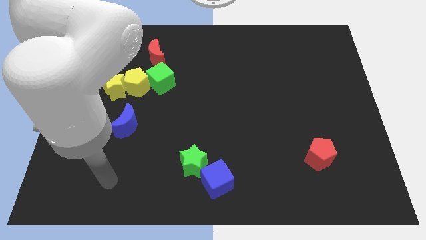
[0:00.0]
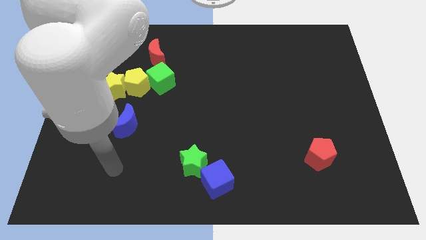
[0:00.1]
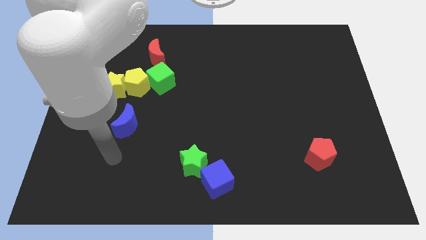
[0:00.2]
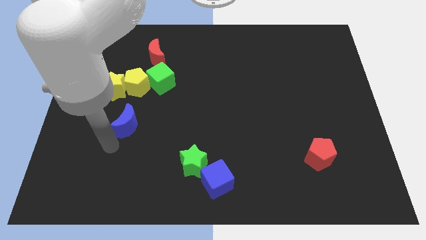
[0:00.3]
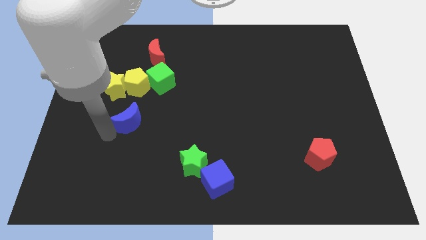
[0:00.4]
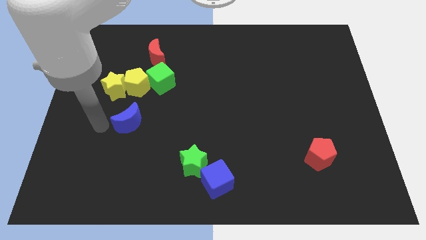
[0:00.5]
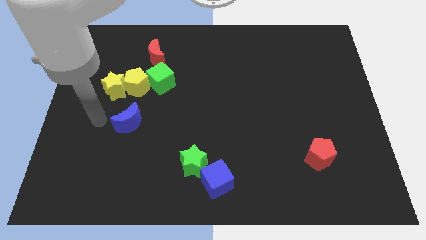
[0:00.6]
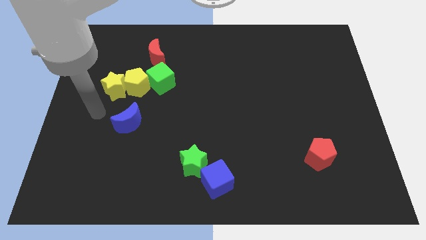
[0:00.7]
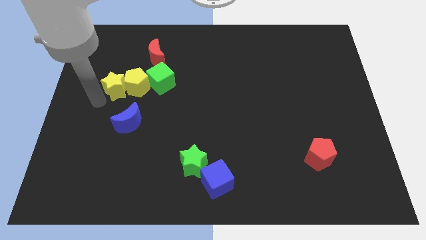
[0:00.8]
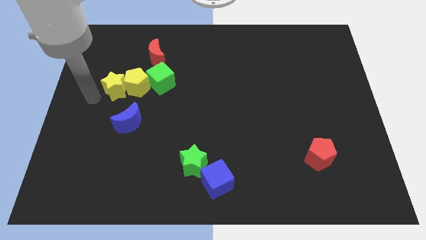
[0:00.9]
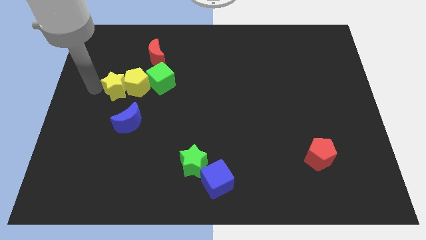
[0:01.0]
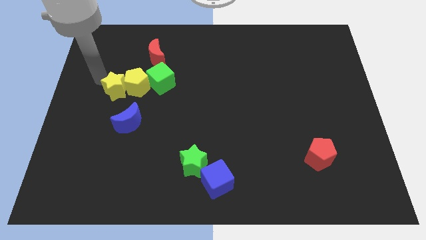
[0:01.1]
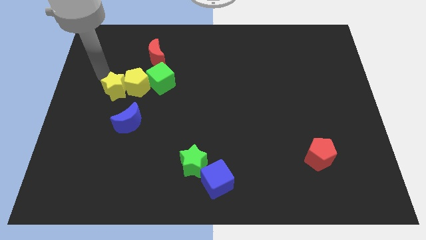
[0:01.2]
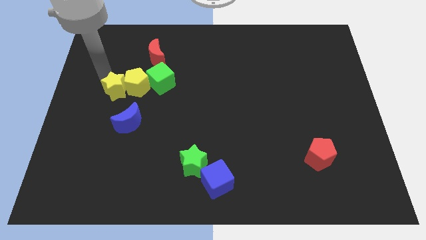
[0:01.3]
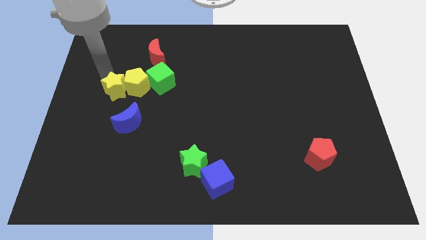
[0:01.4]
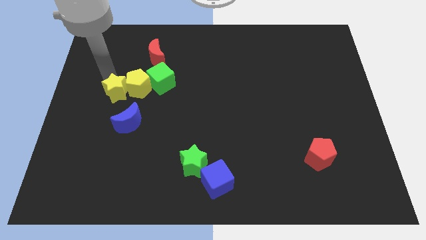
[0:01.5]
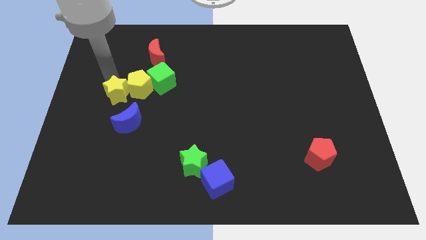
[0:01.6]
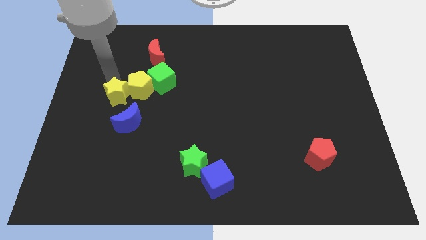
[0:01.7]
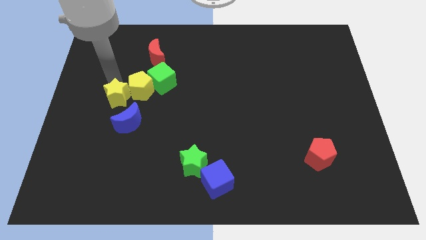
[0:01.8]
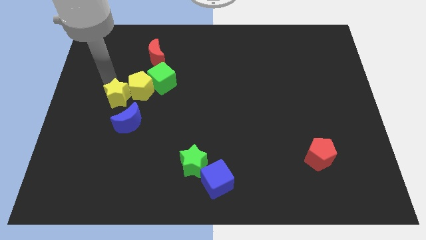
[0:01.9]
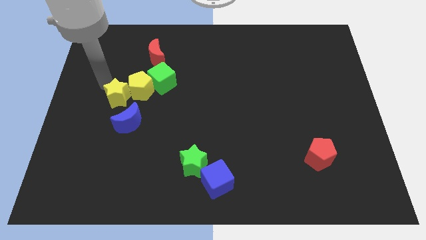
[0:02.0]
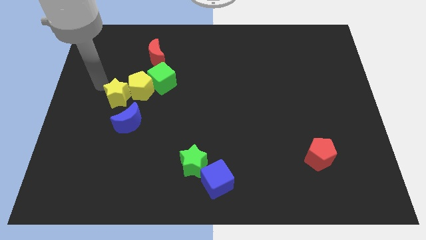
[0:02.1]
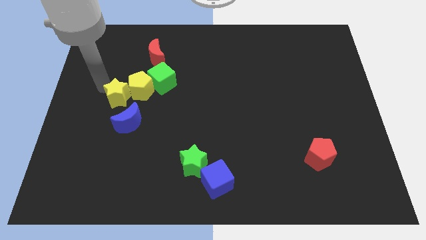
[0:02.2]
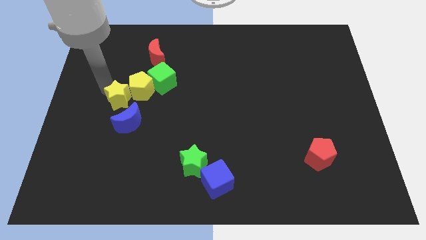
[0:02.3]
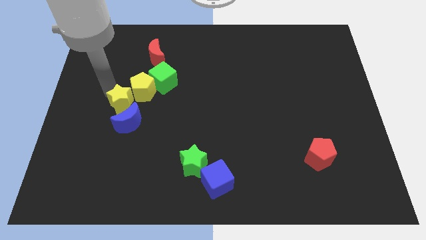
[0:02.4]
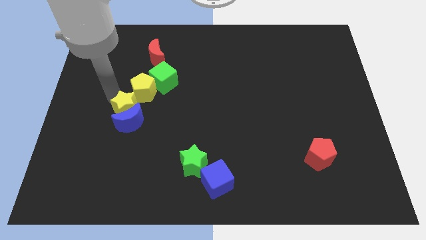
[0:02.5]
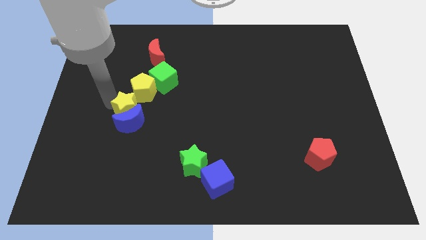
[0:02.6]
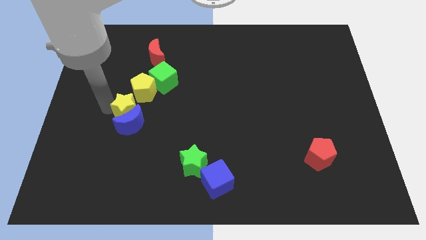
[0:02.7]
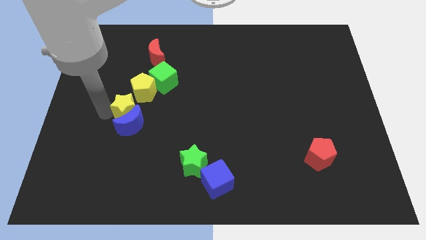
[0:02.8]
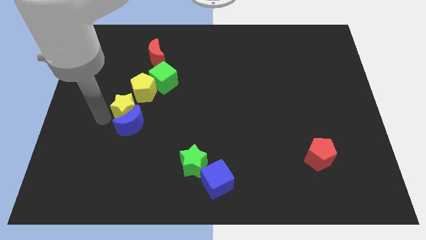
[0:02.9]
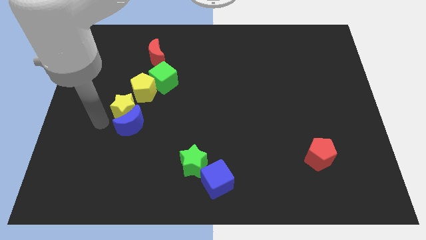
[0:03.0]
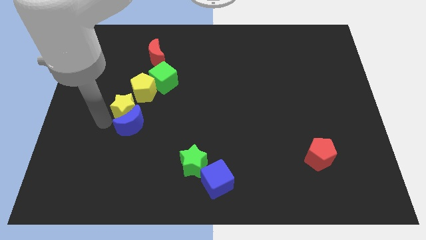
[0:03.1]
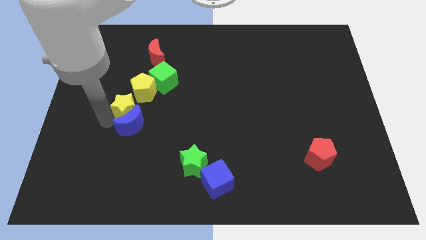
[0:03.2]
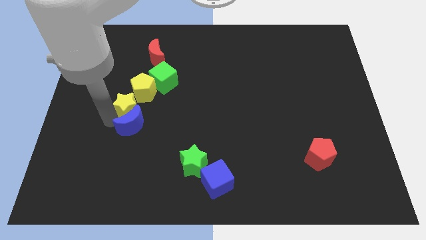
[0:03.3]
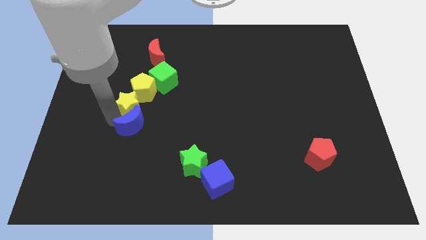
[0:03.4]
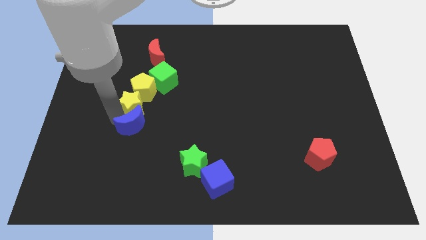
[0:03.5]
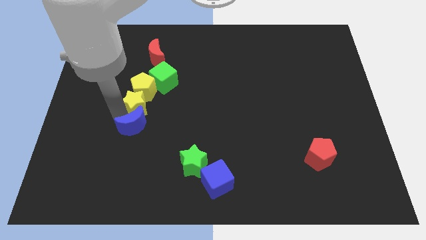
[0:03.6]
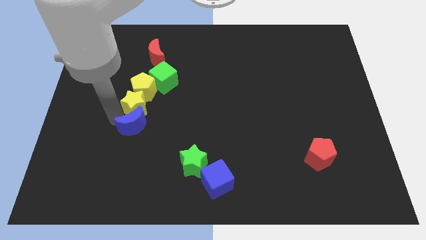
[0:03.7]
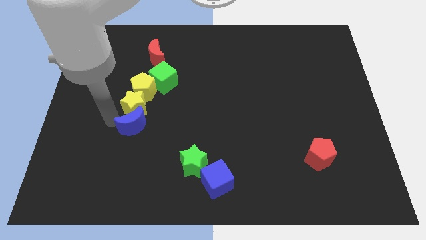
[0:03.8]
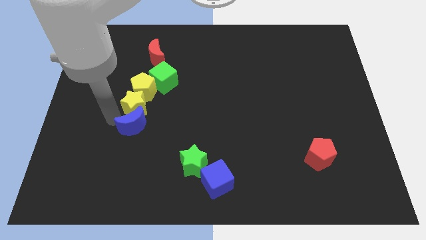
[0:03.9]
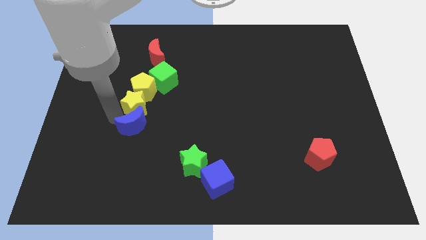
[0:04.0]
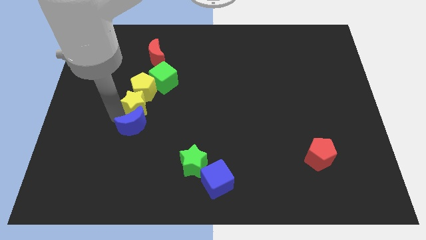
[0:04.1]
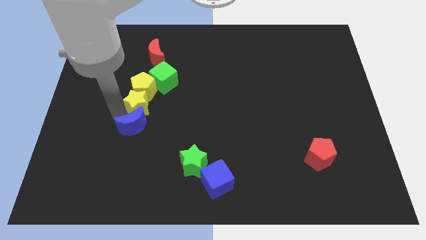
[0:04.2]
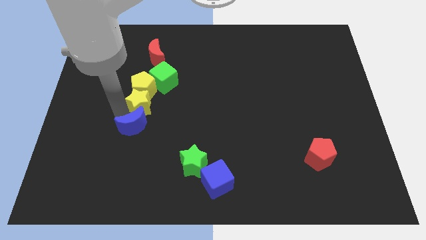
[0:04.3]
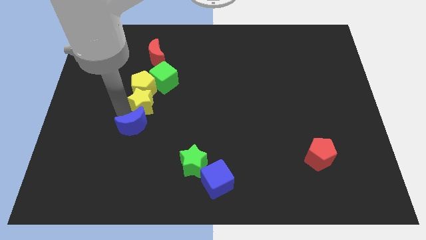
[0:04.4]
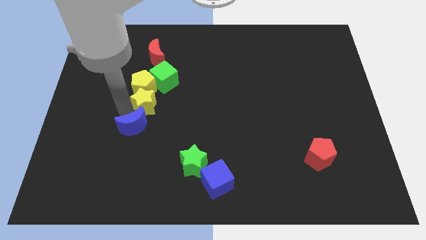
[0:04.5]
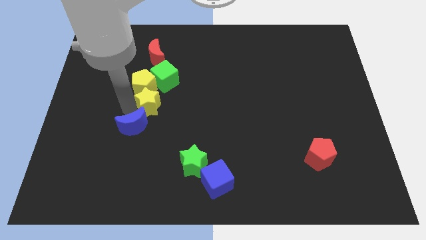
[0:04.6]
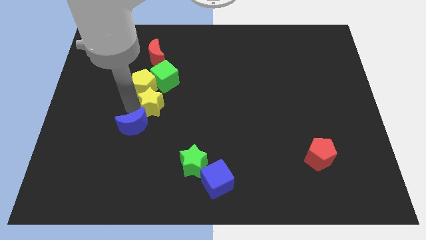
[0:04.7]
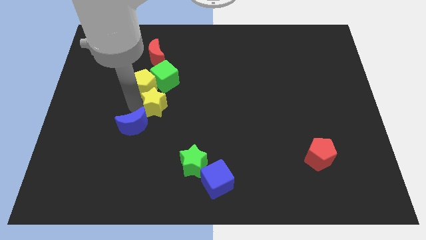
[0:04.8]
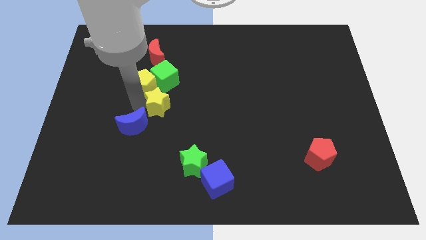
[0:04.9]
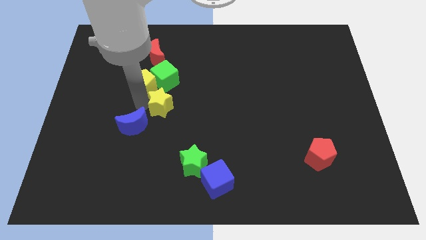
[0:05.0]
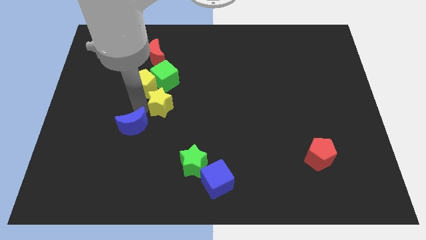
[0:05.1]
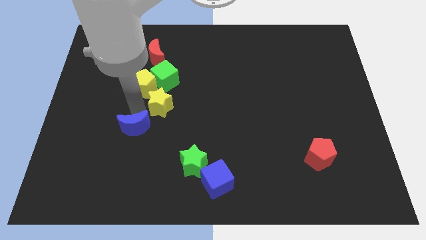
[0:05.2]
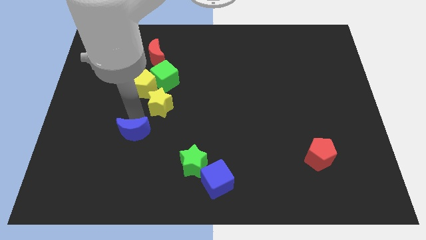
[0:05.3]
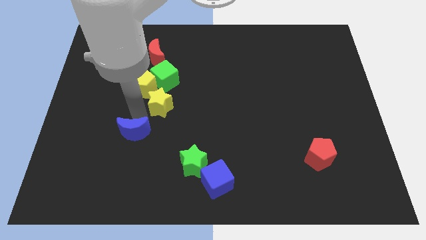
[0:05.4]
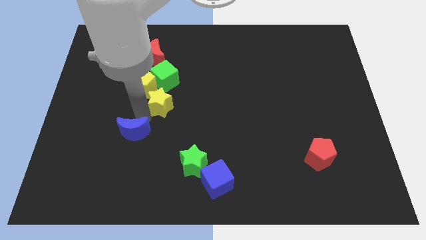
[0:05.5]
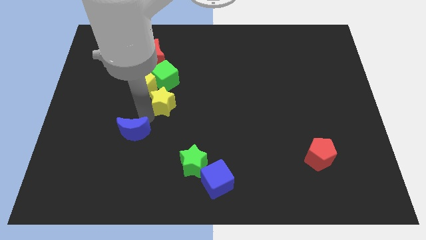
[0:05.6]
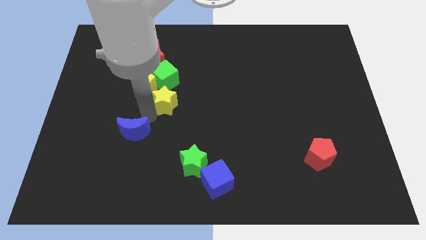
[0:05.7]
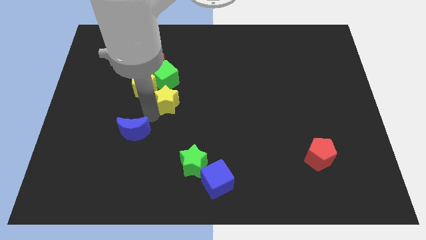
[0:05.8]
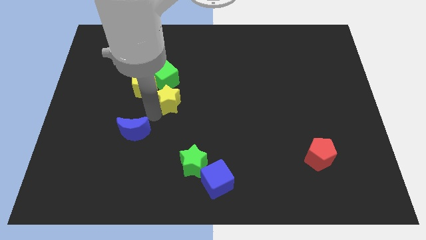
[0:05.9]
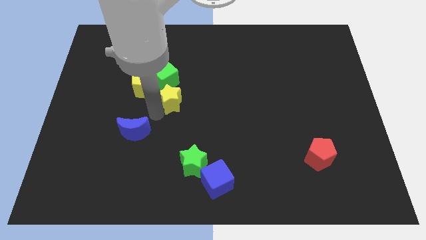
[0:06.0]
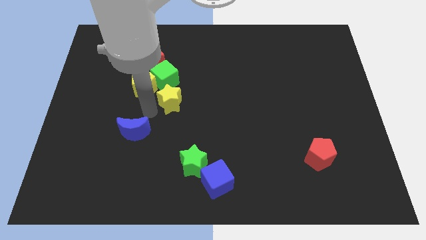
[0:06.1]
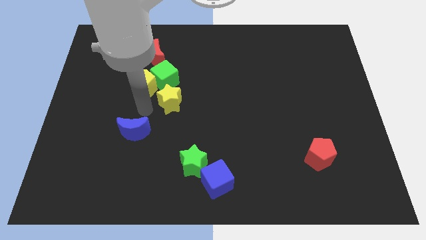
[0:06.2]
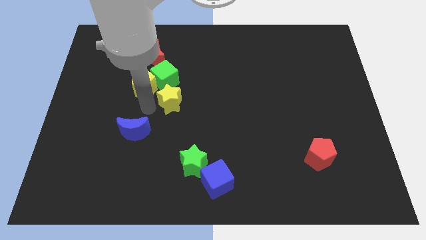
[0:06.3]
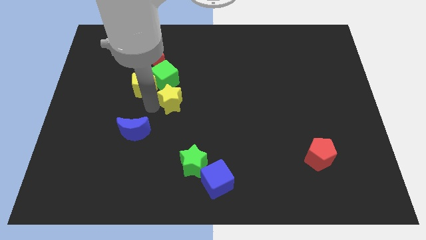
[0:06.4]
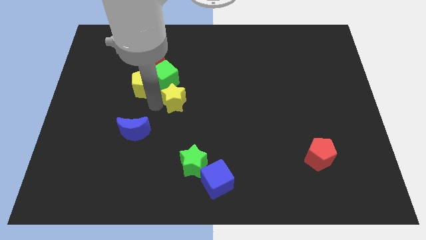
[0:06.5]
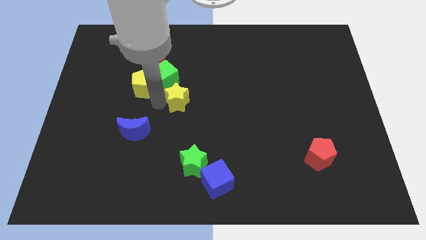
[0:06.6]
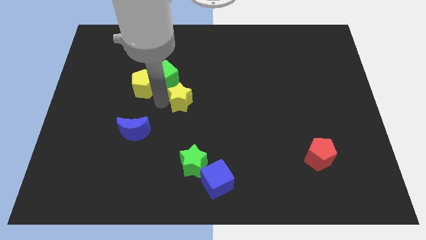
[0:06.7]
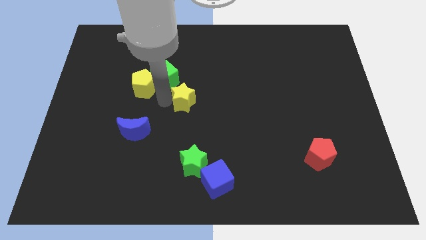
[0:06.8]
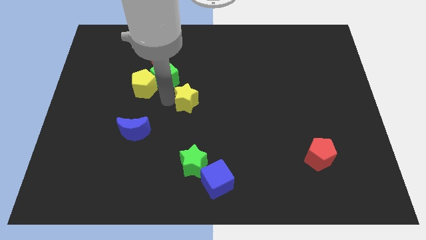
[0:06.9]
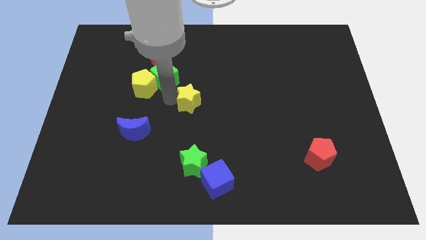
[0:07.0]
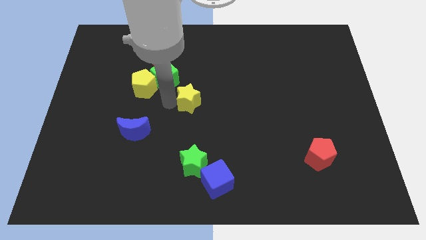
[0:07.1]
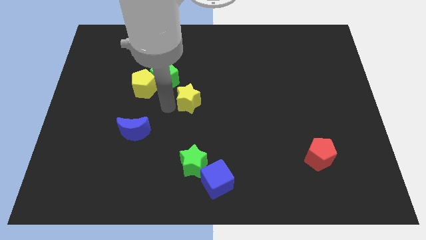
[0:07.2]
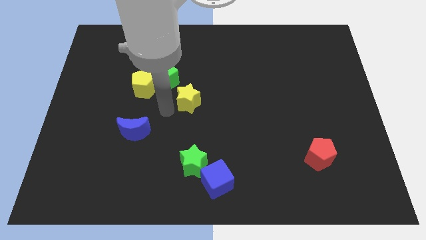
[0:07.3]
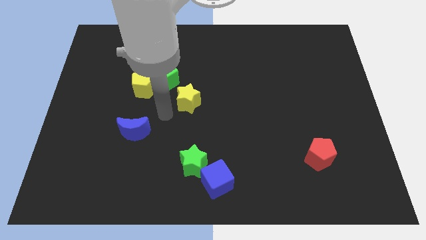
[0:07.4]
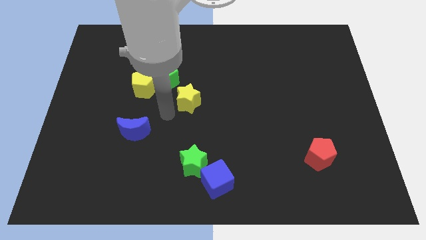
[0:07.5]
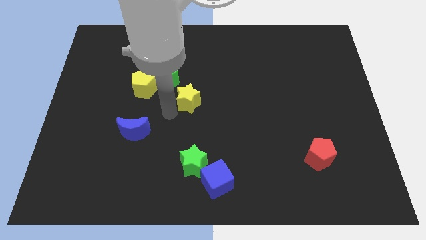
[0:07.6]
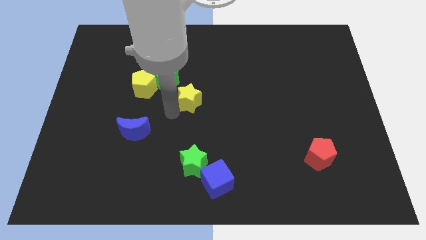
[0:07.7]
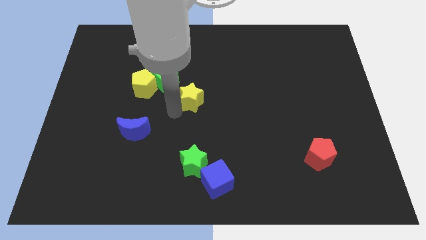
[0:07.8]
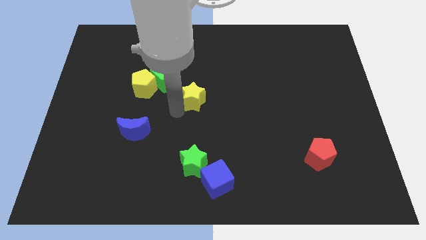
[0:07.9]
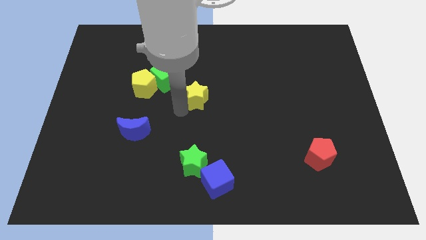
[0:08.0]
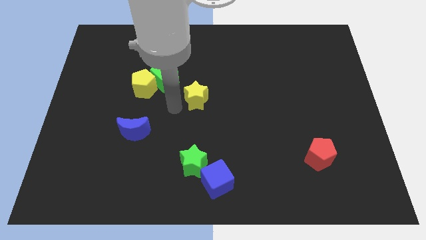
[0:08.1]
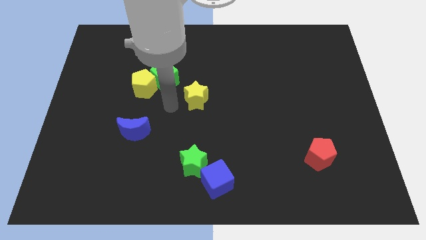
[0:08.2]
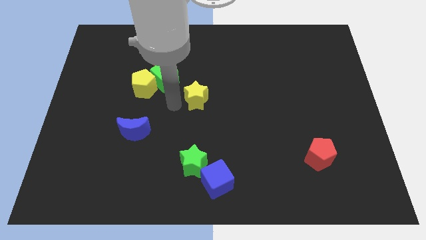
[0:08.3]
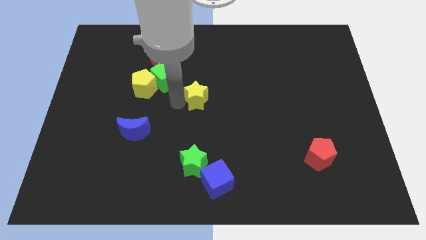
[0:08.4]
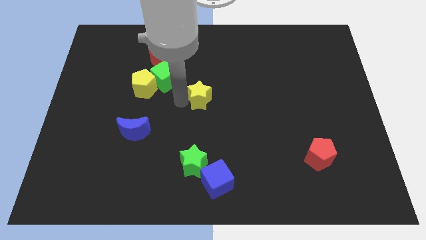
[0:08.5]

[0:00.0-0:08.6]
move the yellow star right
